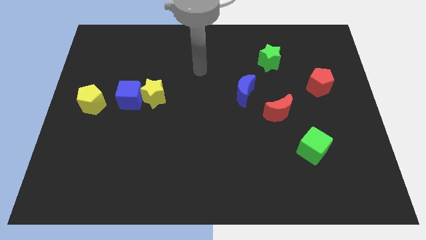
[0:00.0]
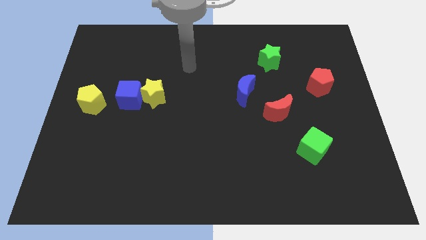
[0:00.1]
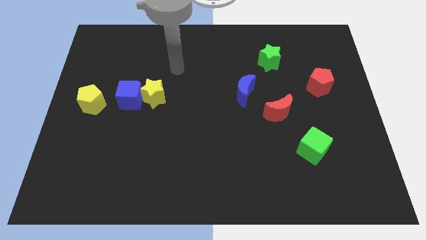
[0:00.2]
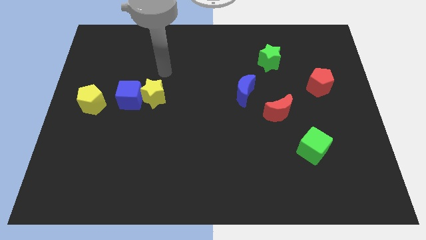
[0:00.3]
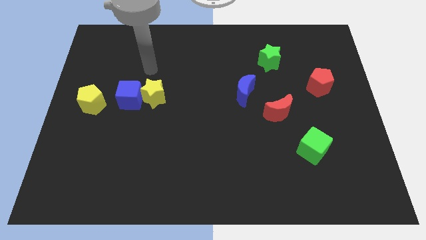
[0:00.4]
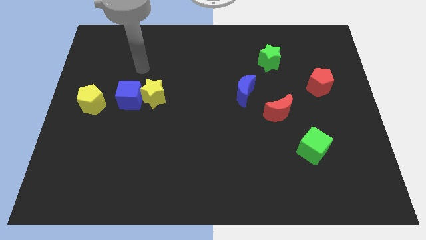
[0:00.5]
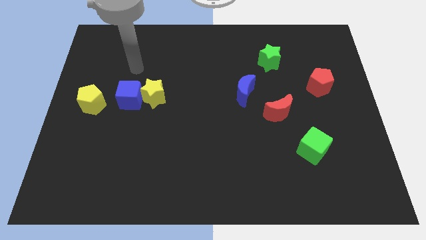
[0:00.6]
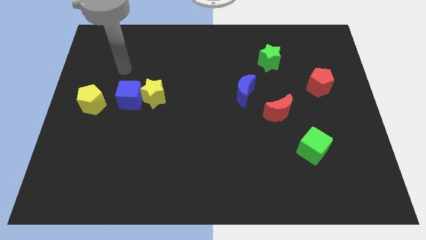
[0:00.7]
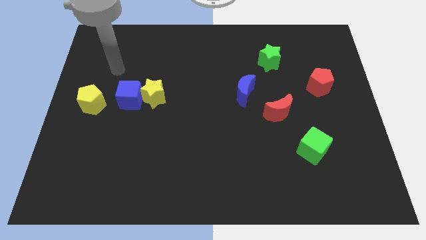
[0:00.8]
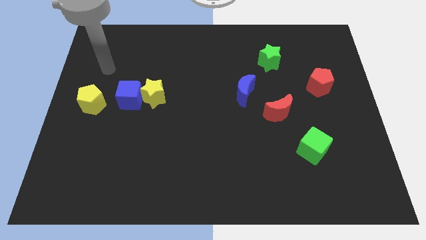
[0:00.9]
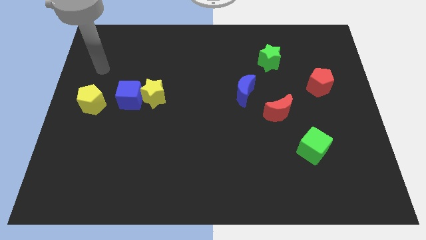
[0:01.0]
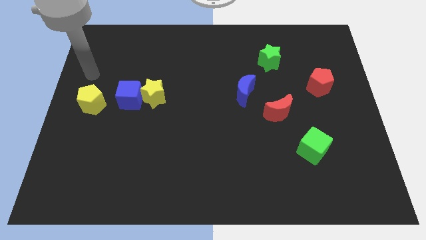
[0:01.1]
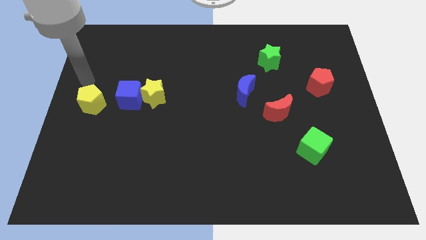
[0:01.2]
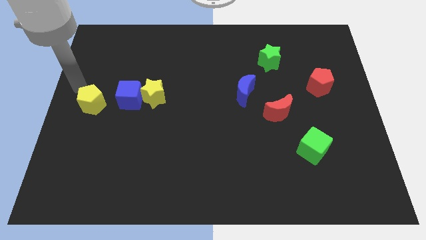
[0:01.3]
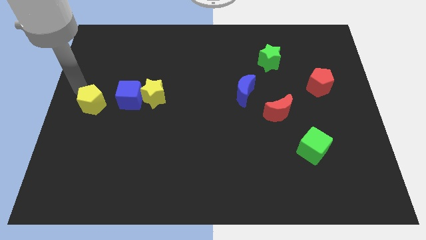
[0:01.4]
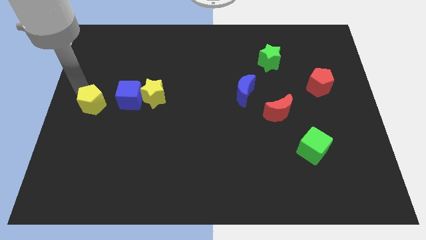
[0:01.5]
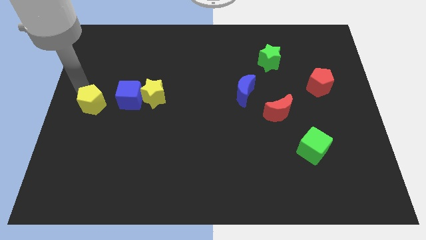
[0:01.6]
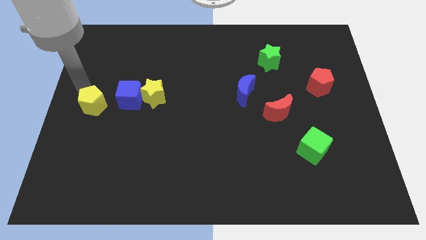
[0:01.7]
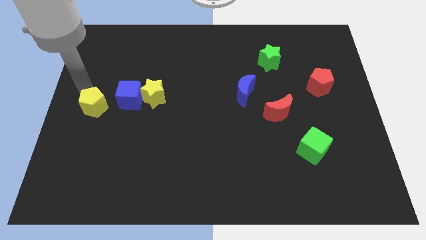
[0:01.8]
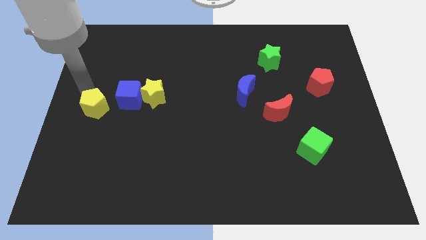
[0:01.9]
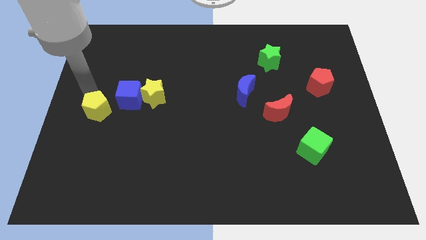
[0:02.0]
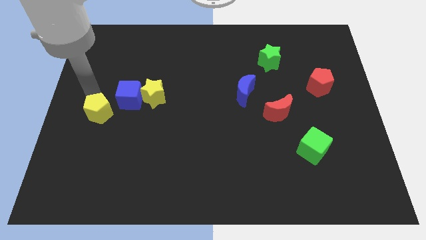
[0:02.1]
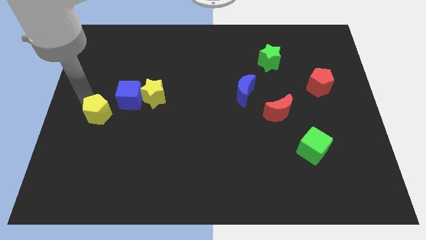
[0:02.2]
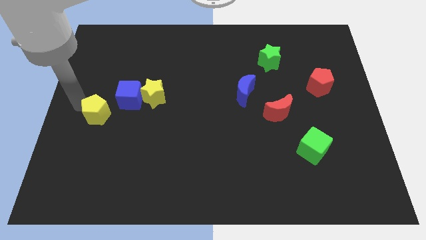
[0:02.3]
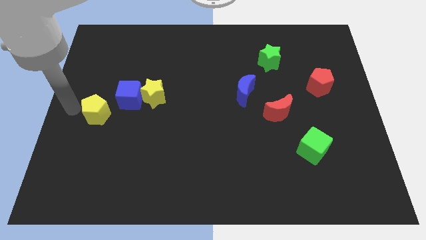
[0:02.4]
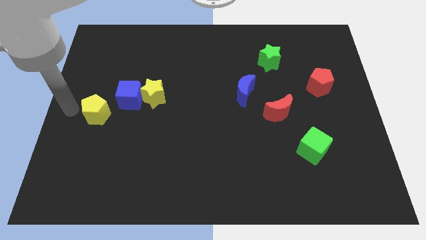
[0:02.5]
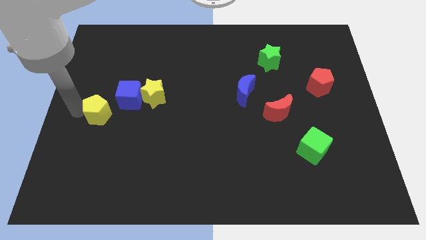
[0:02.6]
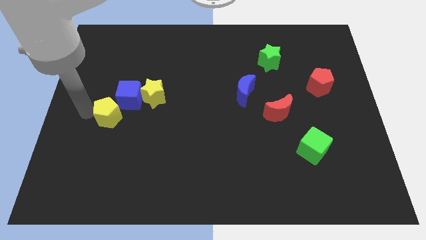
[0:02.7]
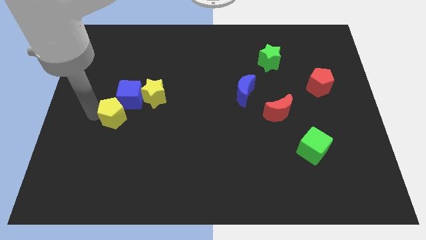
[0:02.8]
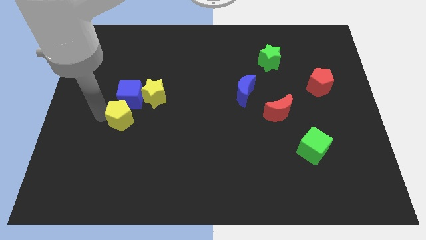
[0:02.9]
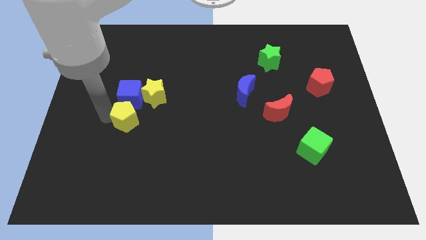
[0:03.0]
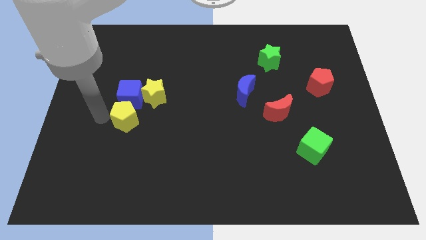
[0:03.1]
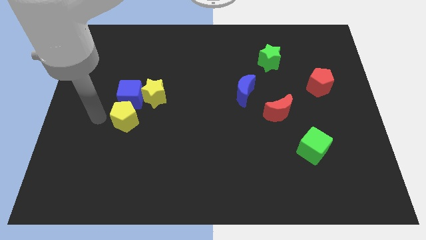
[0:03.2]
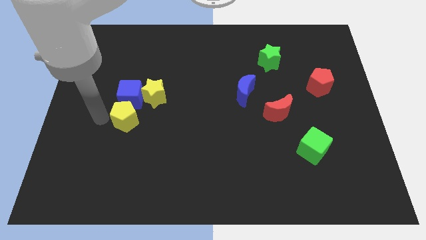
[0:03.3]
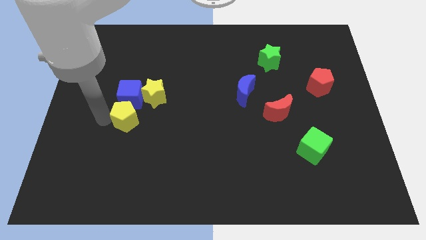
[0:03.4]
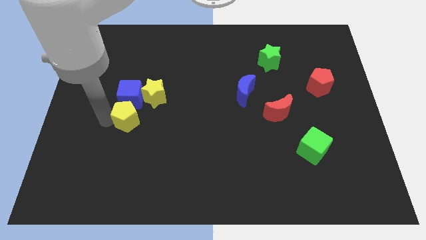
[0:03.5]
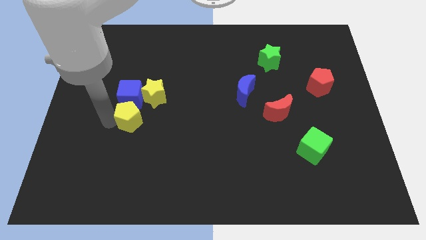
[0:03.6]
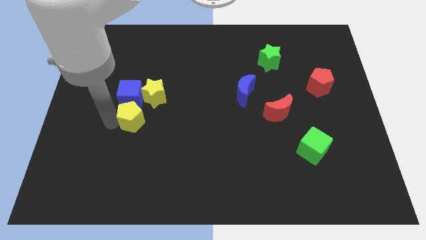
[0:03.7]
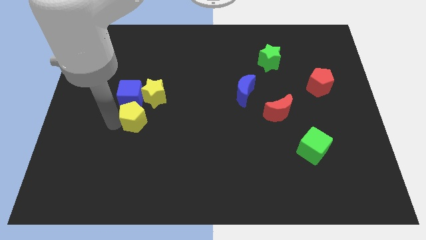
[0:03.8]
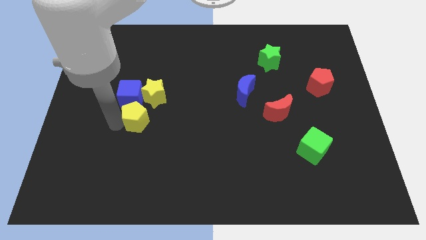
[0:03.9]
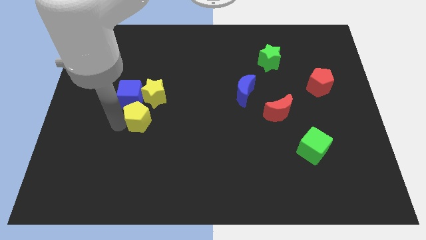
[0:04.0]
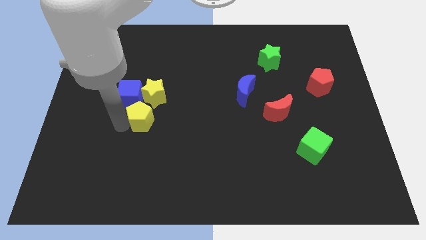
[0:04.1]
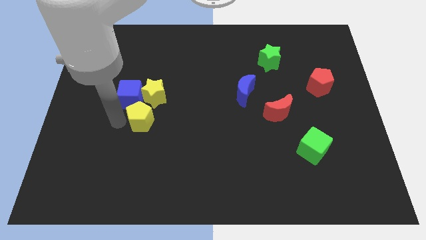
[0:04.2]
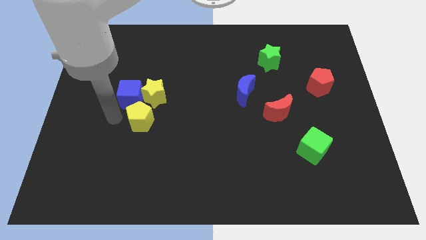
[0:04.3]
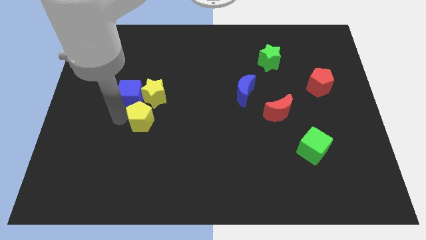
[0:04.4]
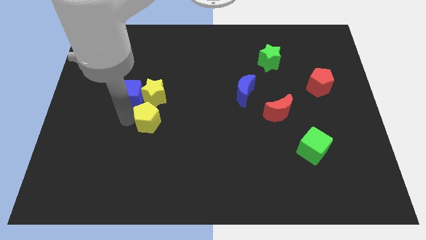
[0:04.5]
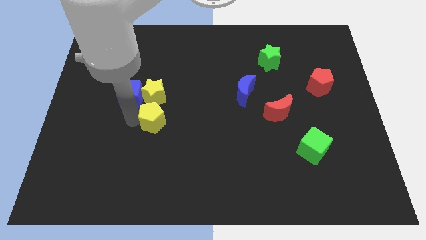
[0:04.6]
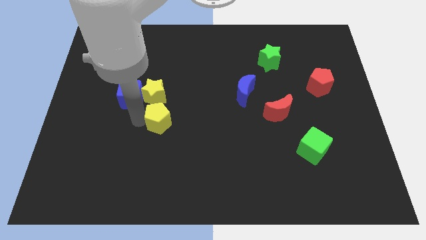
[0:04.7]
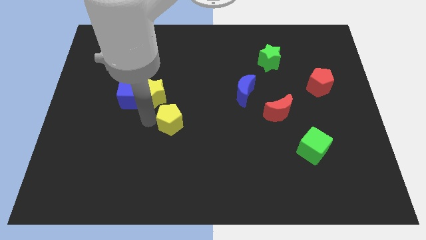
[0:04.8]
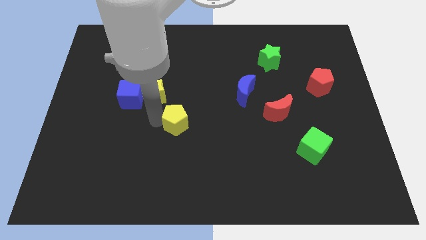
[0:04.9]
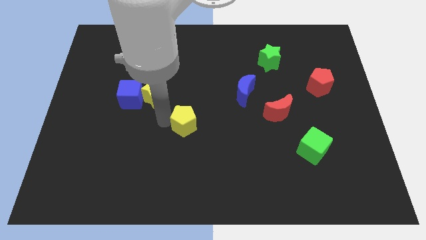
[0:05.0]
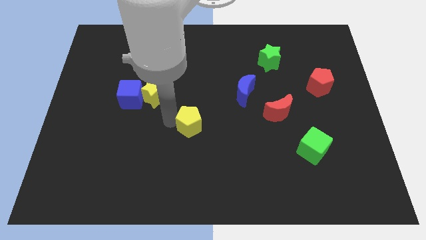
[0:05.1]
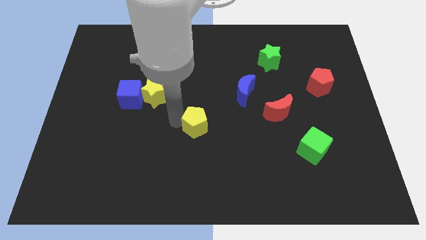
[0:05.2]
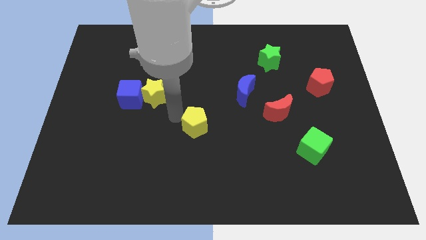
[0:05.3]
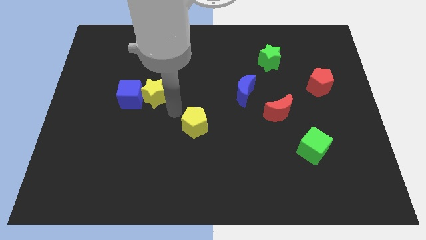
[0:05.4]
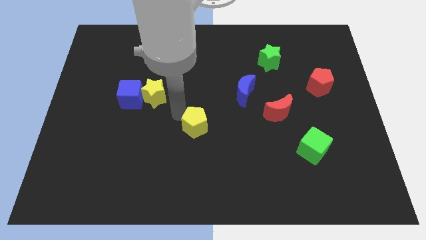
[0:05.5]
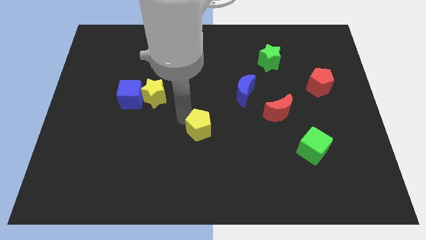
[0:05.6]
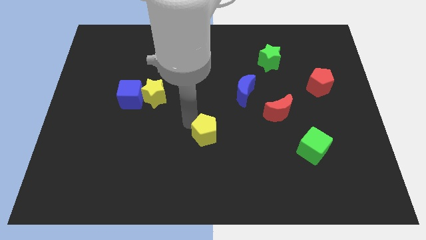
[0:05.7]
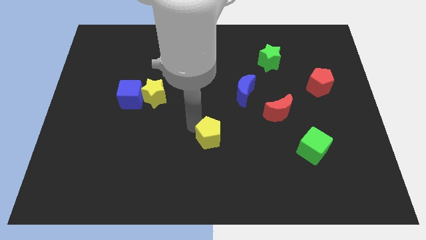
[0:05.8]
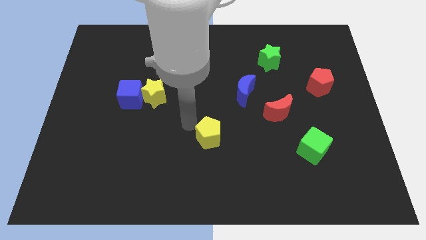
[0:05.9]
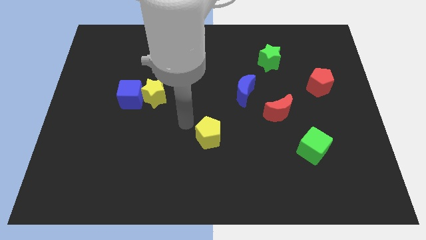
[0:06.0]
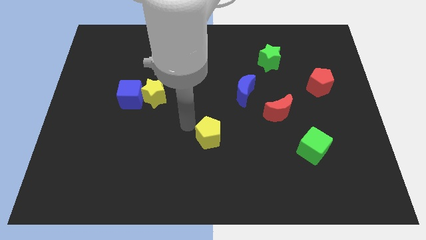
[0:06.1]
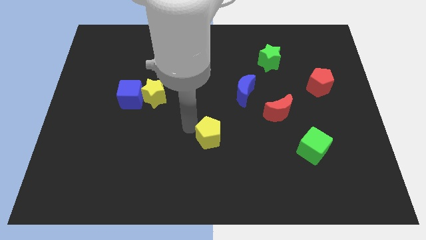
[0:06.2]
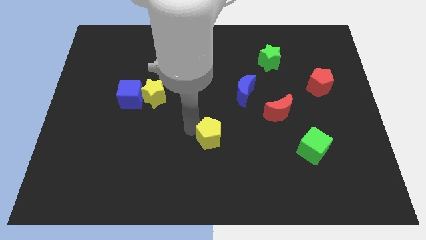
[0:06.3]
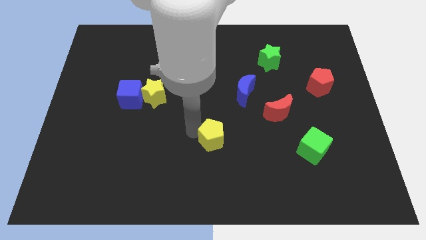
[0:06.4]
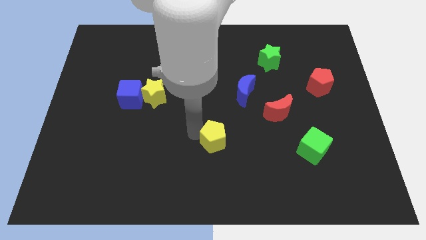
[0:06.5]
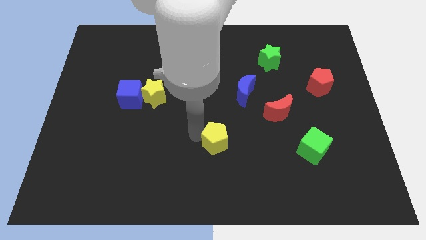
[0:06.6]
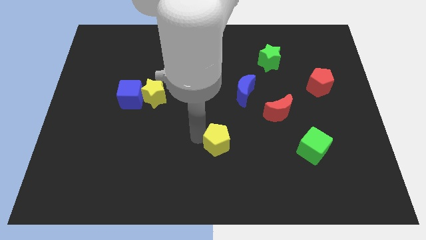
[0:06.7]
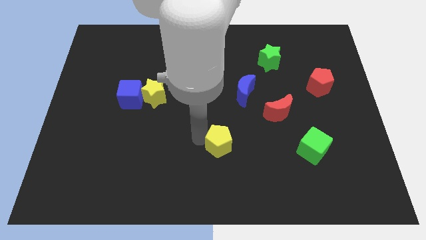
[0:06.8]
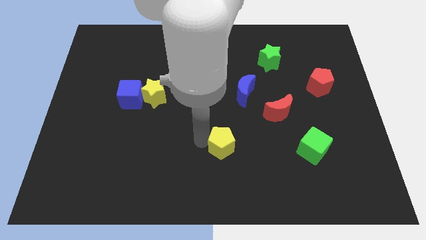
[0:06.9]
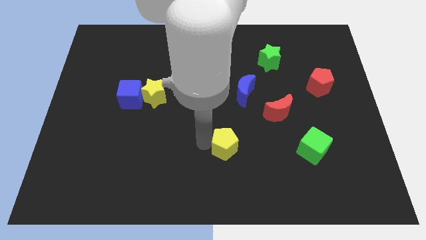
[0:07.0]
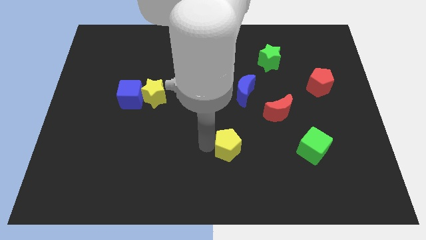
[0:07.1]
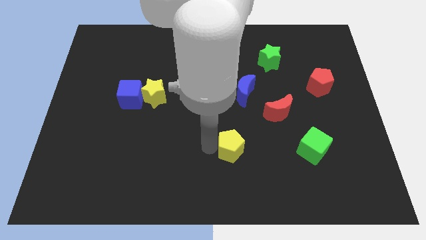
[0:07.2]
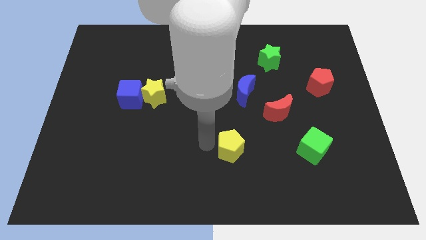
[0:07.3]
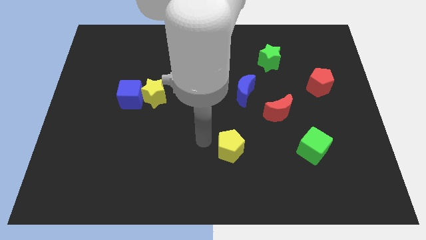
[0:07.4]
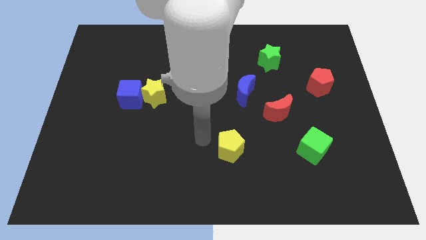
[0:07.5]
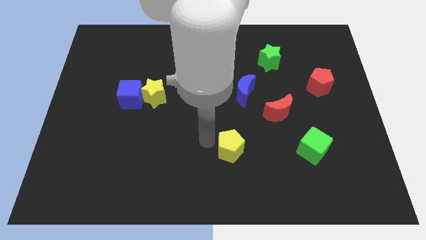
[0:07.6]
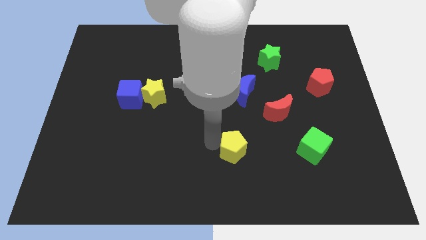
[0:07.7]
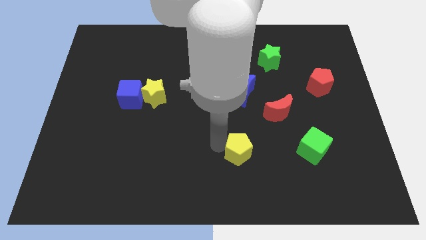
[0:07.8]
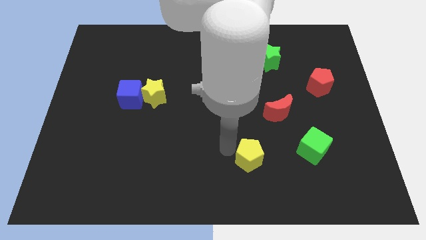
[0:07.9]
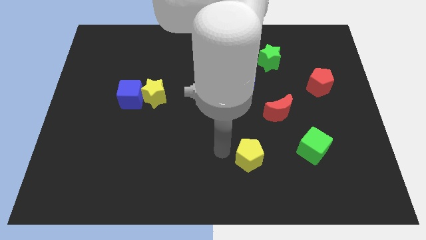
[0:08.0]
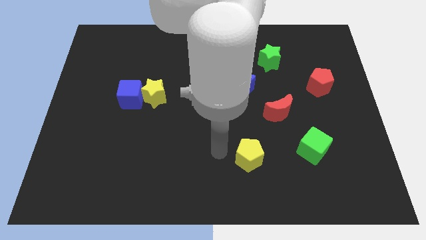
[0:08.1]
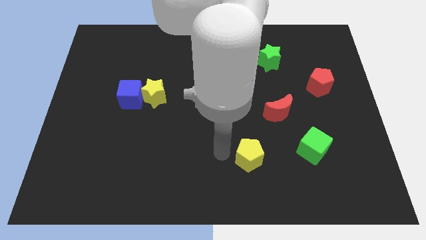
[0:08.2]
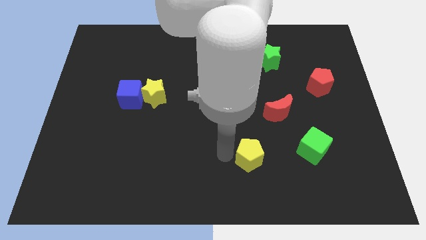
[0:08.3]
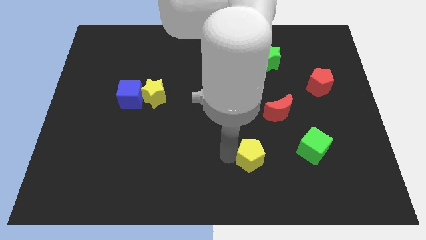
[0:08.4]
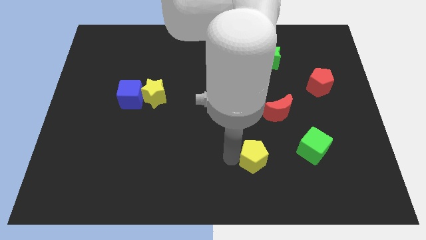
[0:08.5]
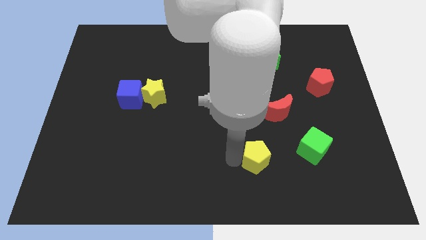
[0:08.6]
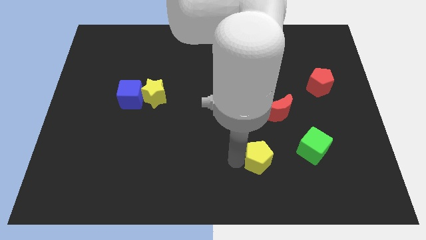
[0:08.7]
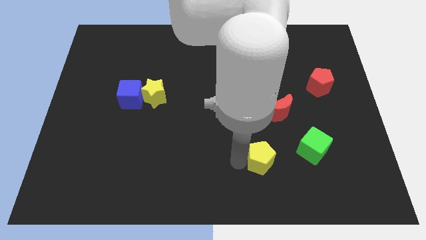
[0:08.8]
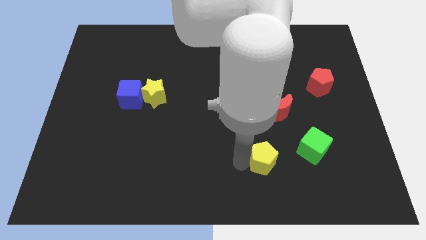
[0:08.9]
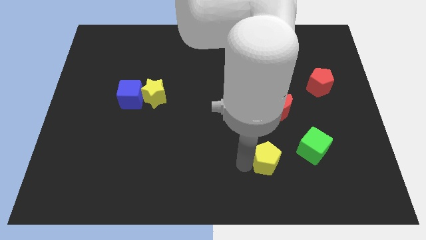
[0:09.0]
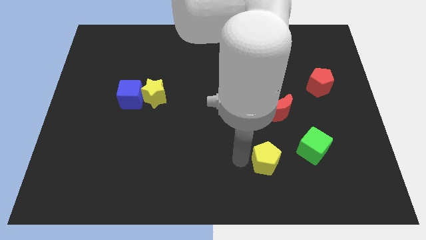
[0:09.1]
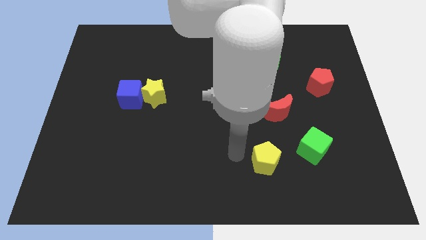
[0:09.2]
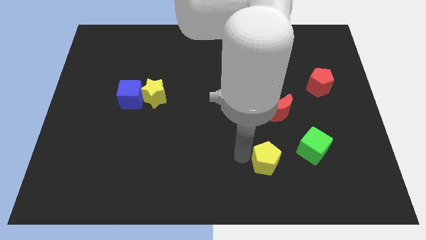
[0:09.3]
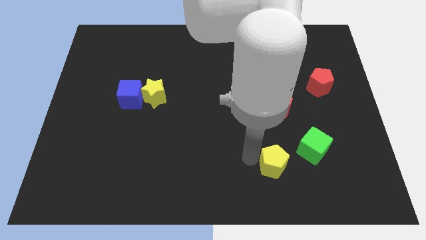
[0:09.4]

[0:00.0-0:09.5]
slide the yellow pentagon diagonally down and to the left of the green cube
